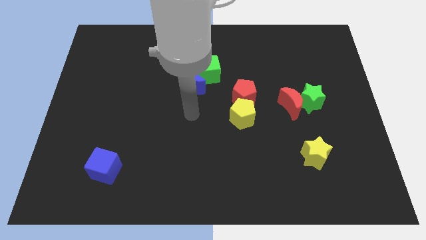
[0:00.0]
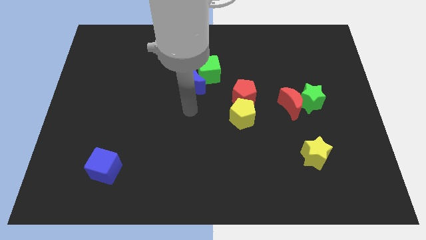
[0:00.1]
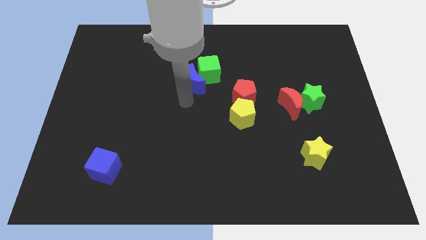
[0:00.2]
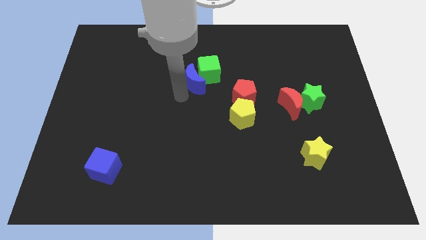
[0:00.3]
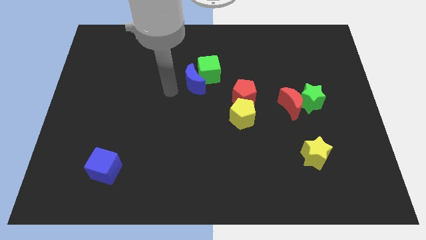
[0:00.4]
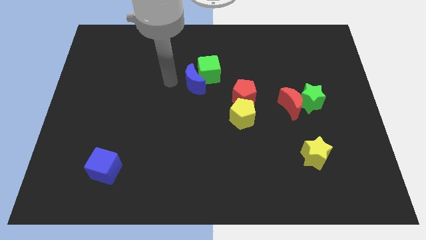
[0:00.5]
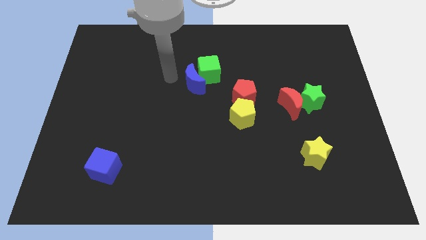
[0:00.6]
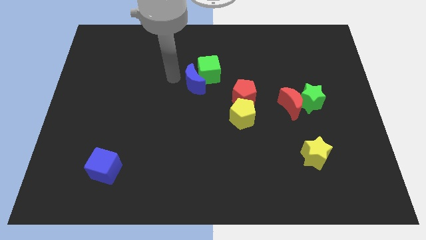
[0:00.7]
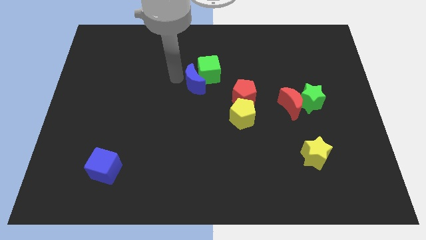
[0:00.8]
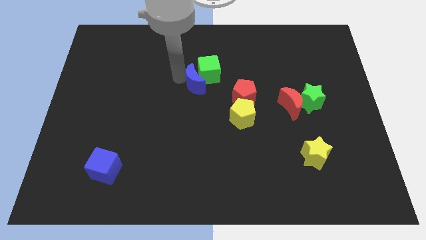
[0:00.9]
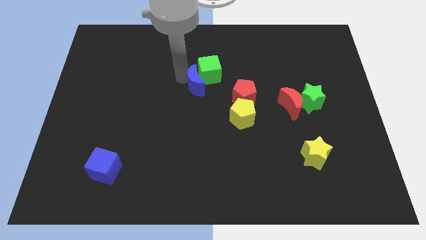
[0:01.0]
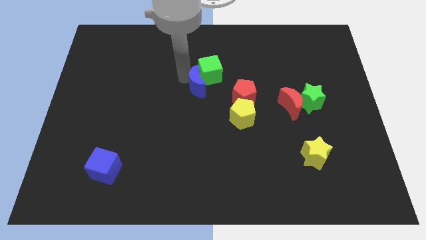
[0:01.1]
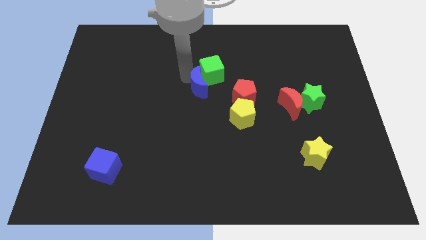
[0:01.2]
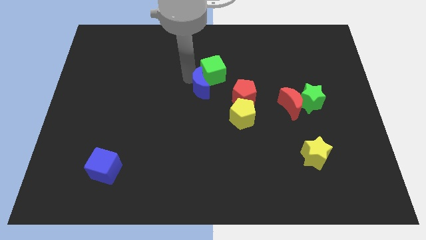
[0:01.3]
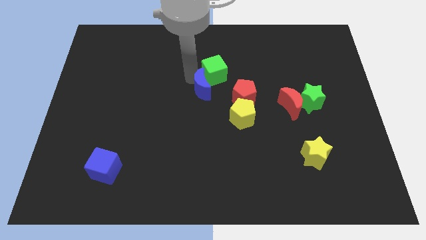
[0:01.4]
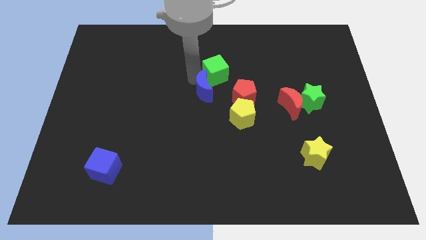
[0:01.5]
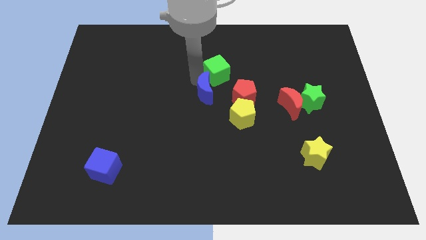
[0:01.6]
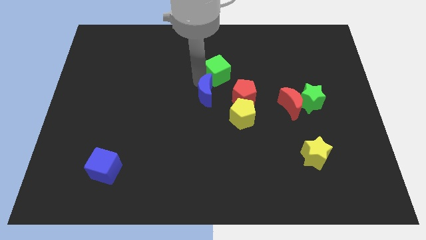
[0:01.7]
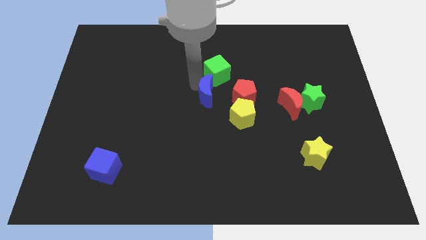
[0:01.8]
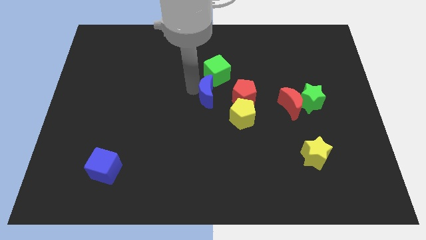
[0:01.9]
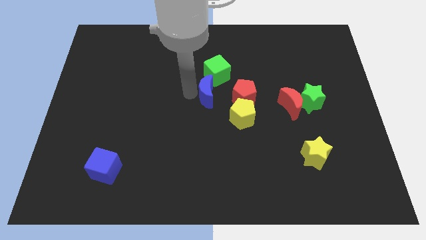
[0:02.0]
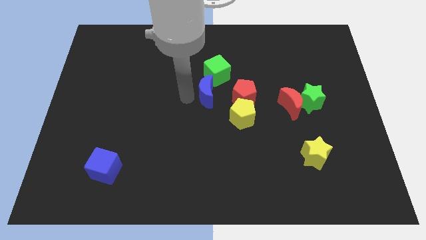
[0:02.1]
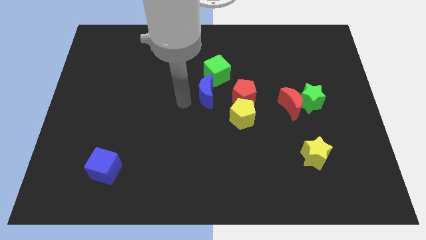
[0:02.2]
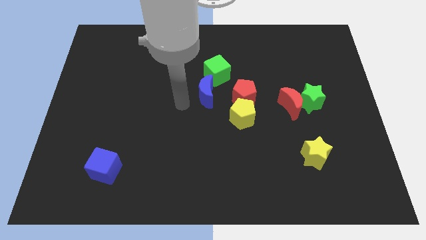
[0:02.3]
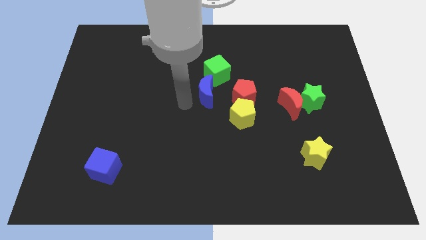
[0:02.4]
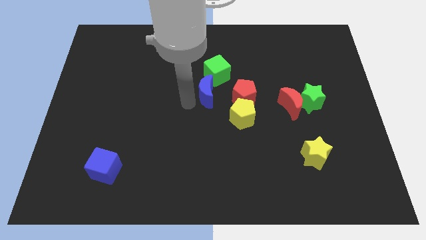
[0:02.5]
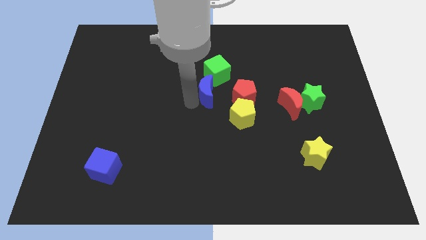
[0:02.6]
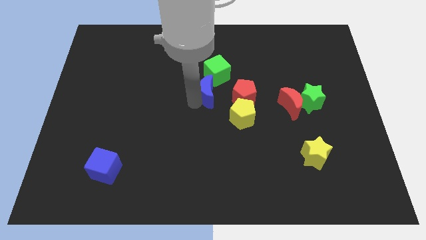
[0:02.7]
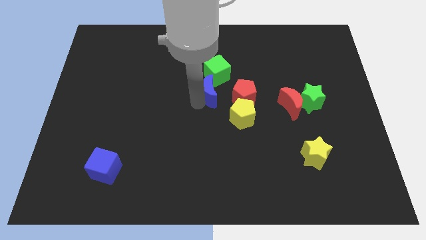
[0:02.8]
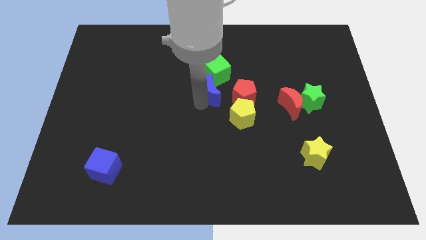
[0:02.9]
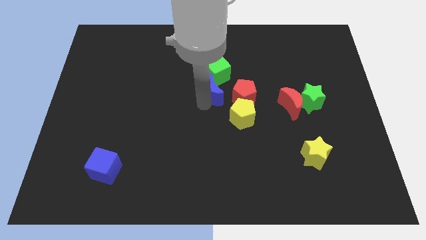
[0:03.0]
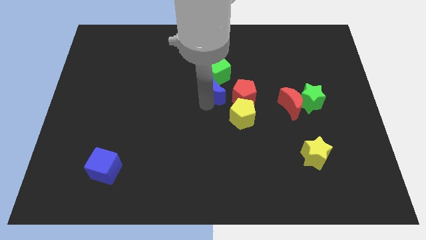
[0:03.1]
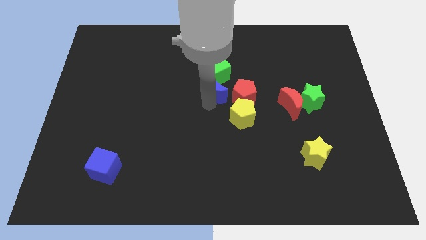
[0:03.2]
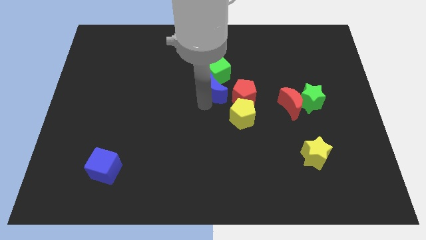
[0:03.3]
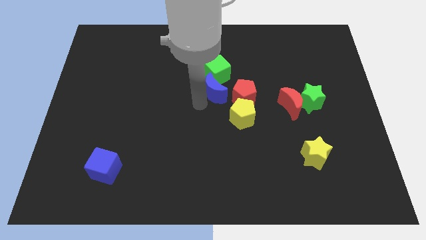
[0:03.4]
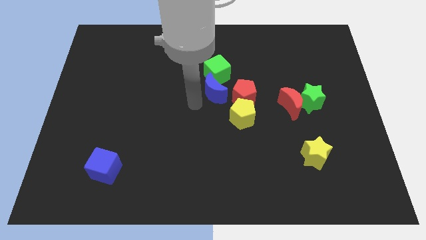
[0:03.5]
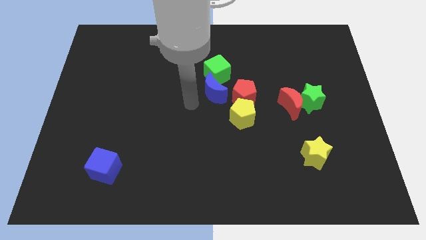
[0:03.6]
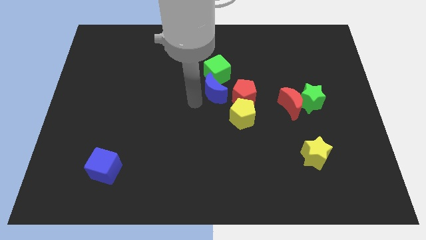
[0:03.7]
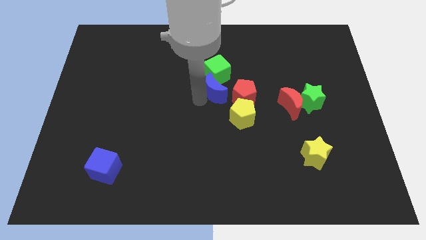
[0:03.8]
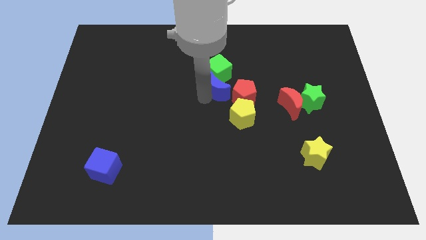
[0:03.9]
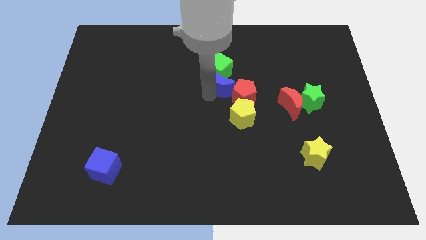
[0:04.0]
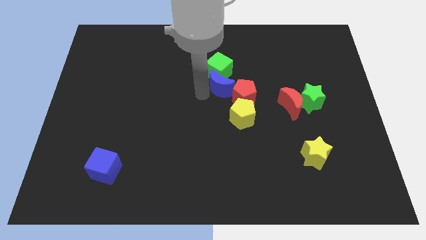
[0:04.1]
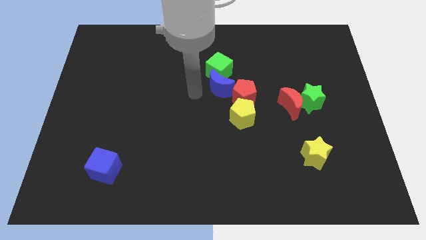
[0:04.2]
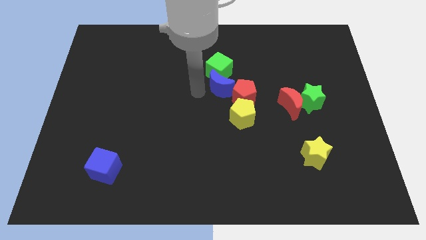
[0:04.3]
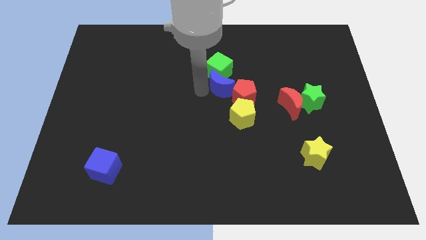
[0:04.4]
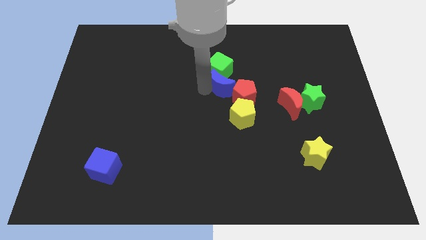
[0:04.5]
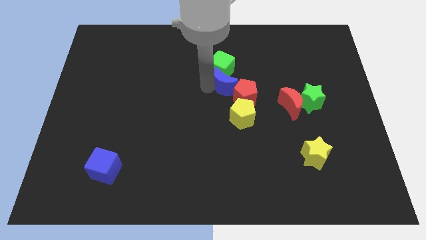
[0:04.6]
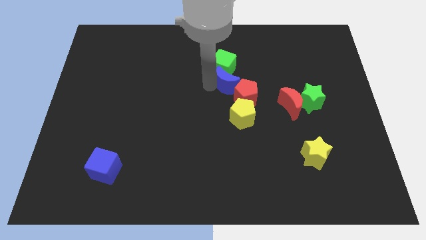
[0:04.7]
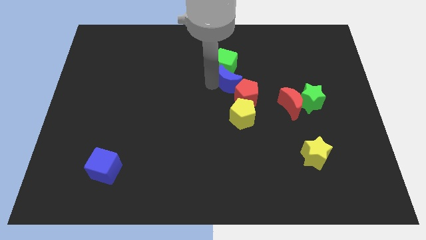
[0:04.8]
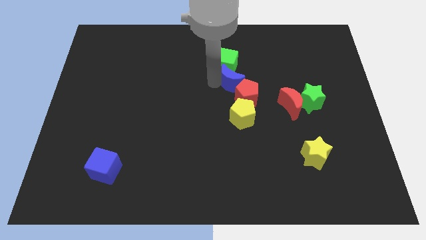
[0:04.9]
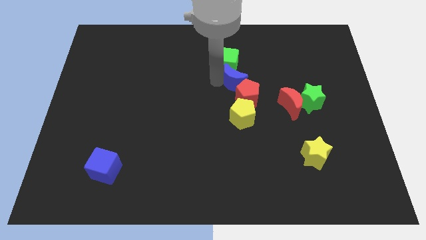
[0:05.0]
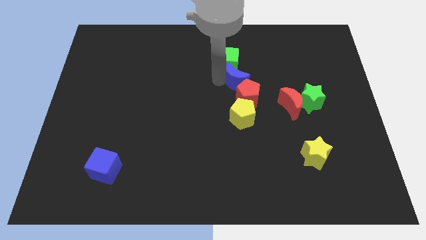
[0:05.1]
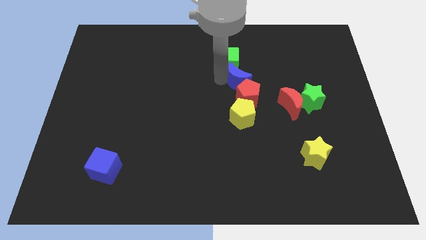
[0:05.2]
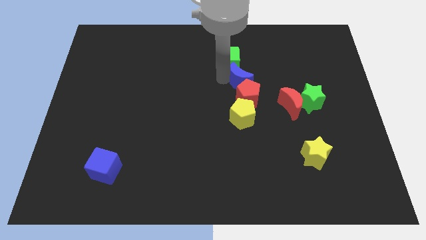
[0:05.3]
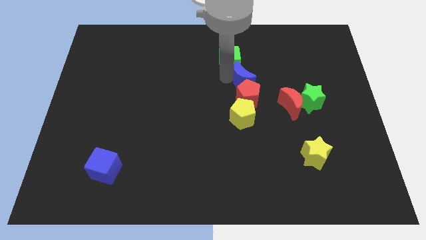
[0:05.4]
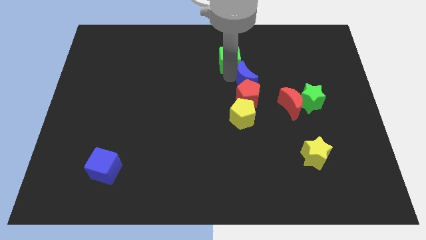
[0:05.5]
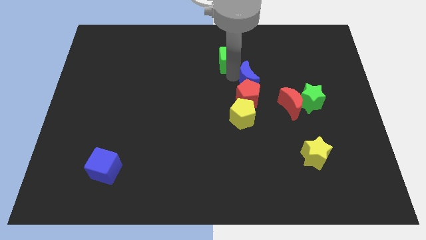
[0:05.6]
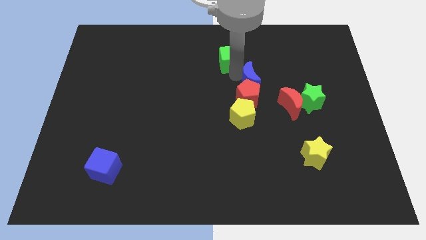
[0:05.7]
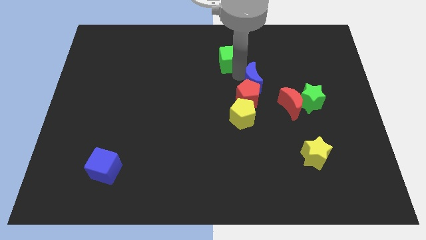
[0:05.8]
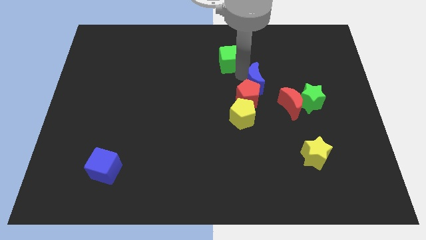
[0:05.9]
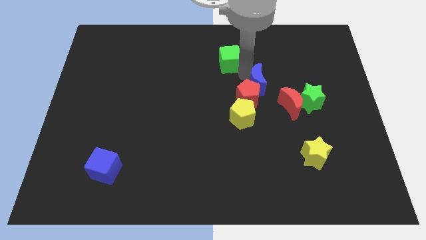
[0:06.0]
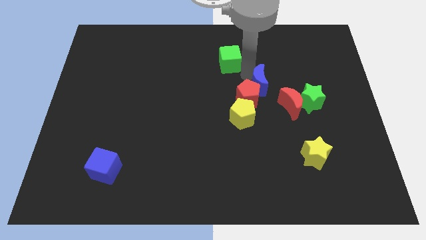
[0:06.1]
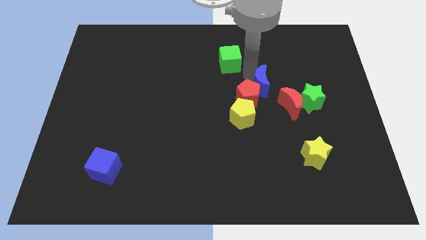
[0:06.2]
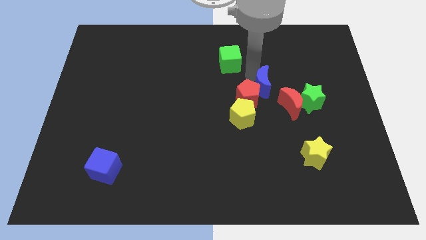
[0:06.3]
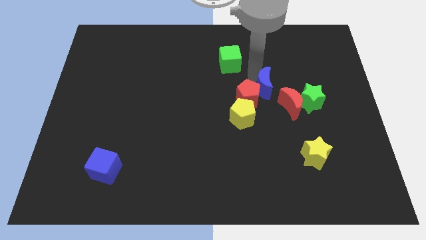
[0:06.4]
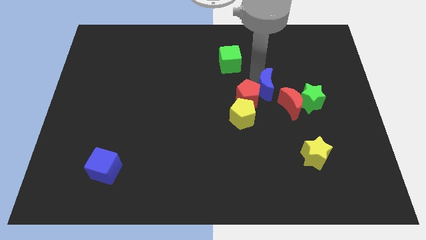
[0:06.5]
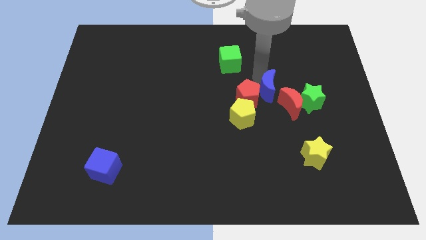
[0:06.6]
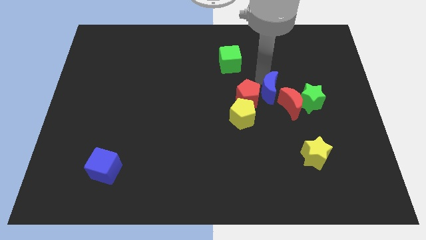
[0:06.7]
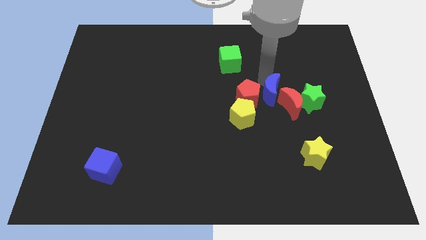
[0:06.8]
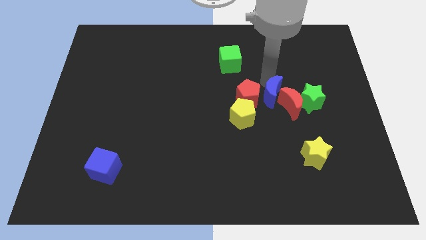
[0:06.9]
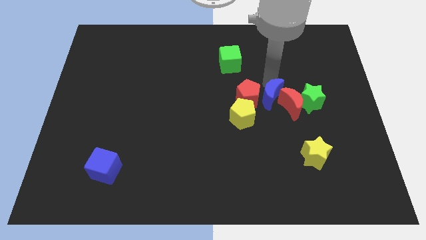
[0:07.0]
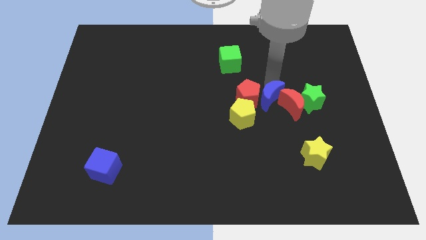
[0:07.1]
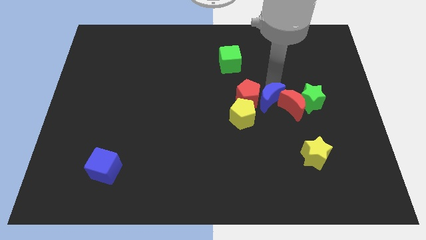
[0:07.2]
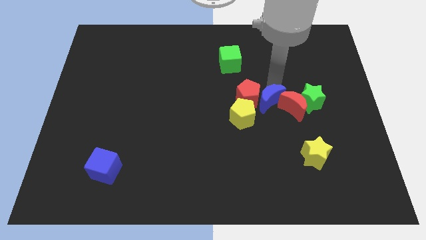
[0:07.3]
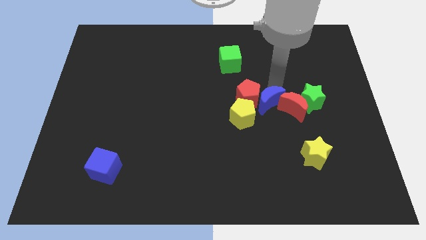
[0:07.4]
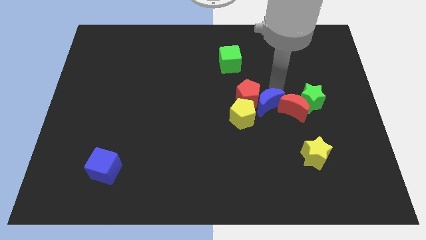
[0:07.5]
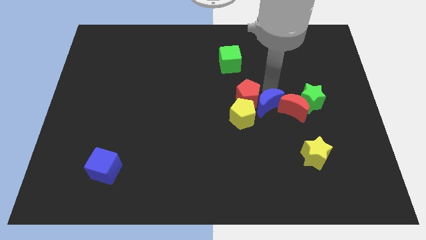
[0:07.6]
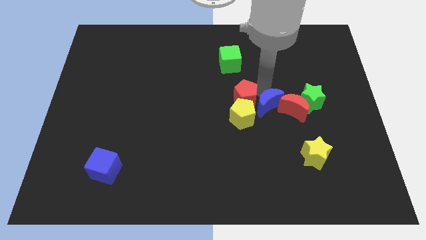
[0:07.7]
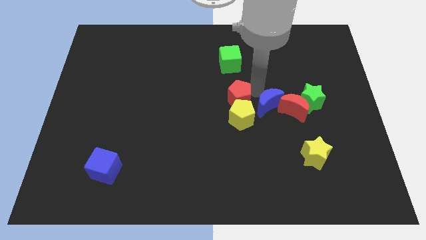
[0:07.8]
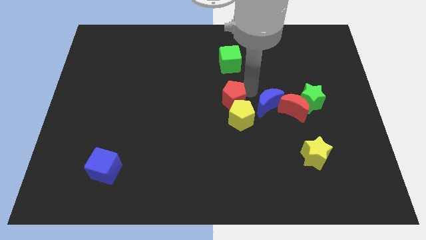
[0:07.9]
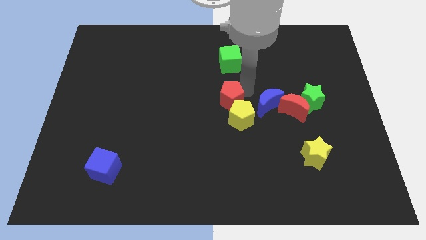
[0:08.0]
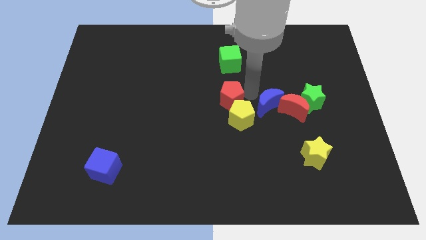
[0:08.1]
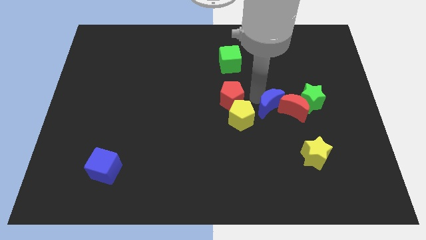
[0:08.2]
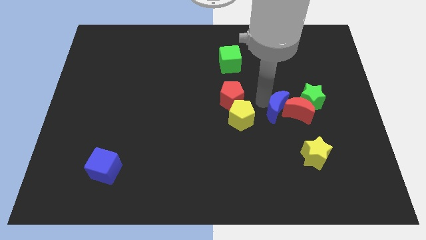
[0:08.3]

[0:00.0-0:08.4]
put the blue moon to the bottom left side of the green star
